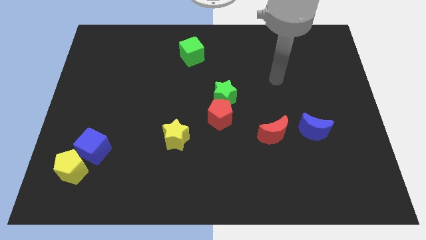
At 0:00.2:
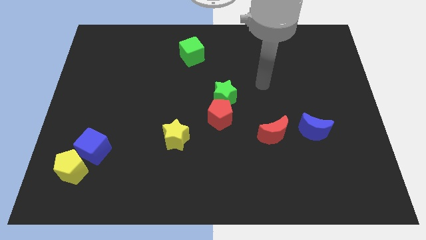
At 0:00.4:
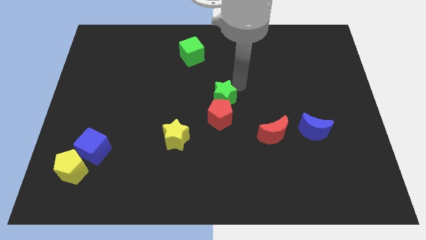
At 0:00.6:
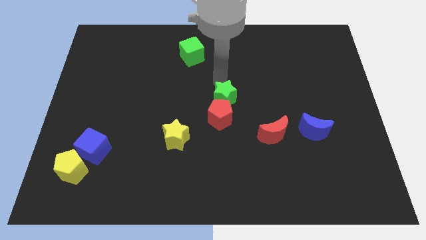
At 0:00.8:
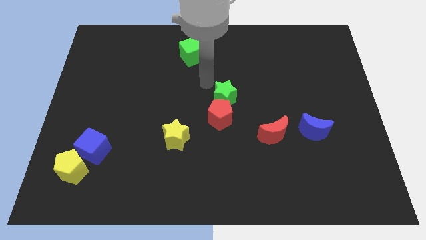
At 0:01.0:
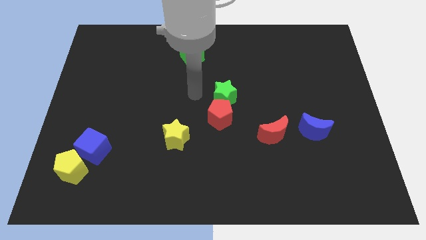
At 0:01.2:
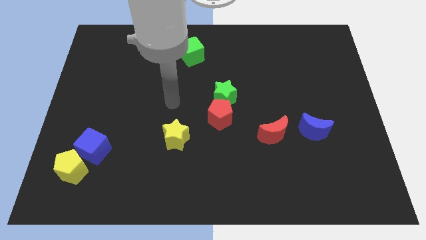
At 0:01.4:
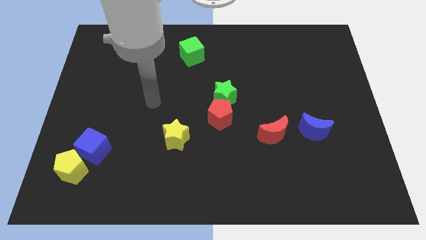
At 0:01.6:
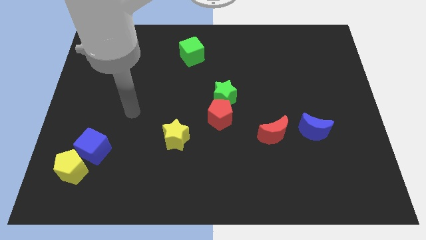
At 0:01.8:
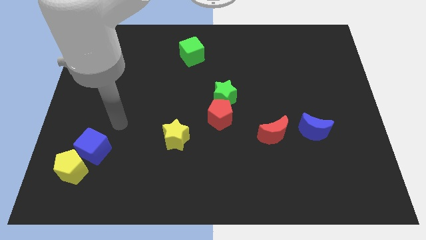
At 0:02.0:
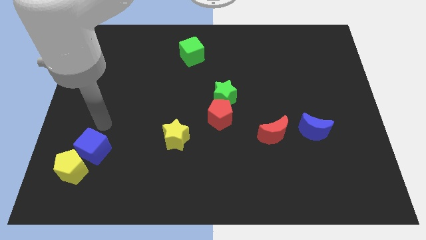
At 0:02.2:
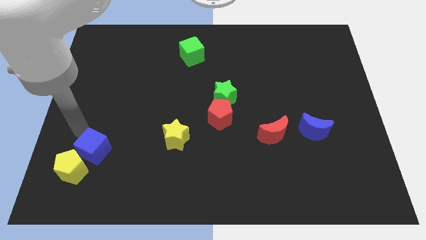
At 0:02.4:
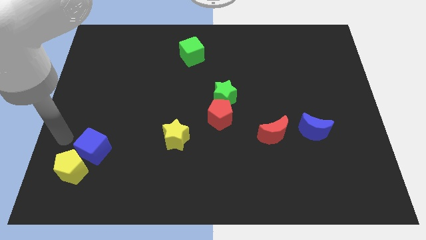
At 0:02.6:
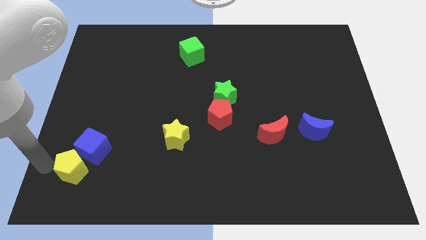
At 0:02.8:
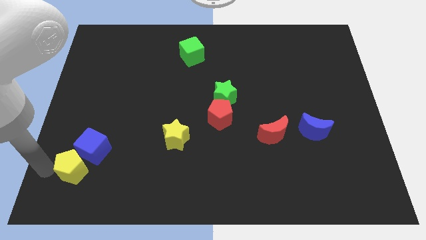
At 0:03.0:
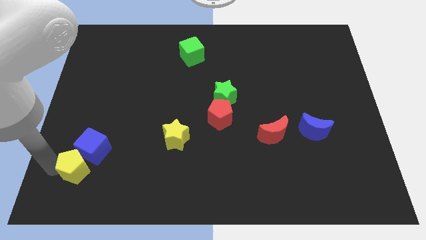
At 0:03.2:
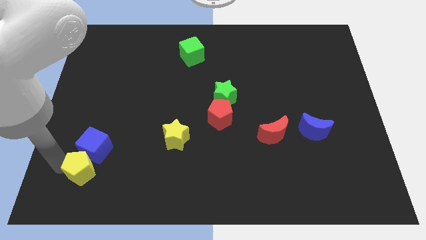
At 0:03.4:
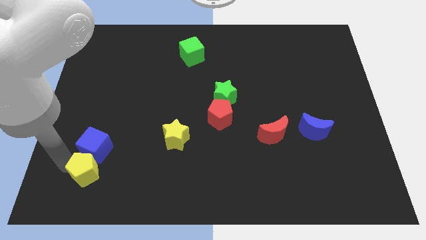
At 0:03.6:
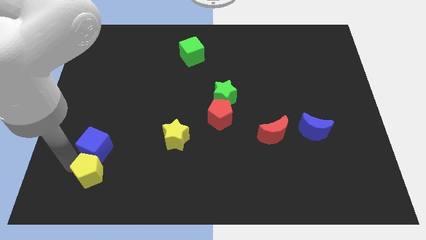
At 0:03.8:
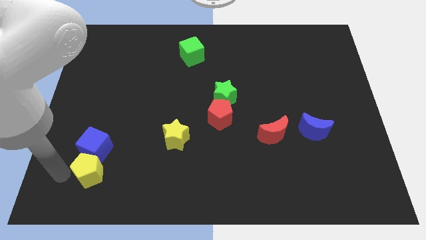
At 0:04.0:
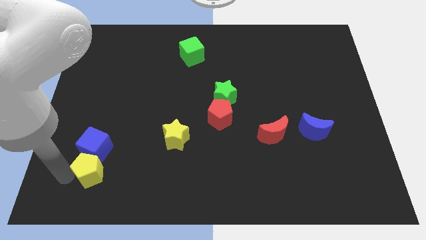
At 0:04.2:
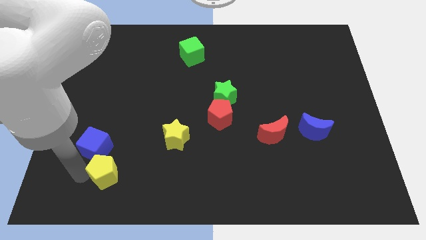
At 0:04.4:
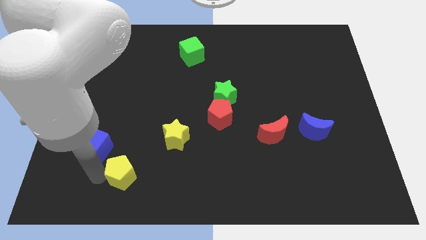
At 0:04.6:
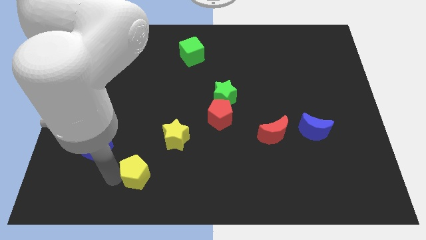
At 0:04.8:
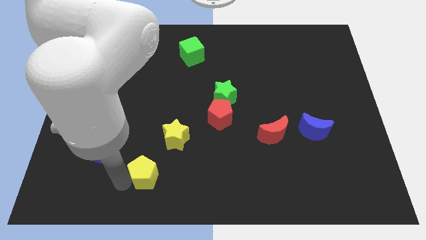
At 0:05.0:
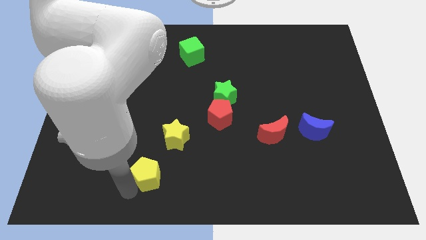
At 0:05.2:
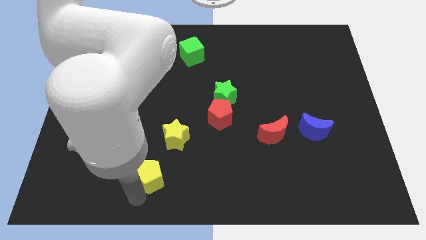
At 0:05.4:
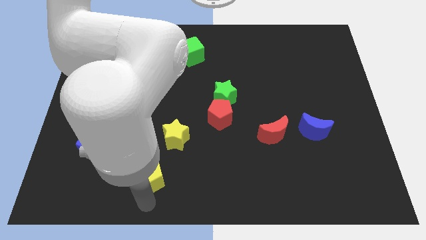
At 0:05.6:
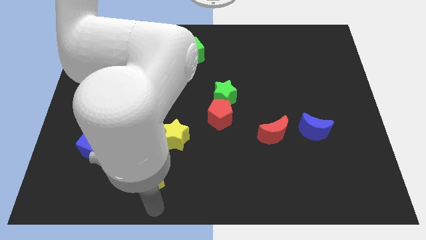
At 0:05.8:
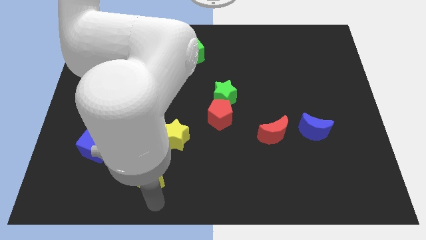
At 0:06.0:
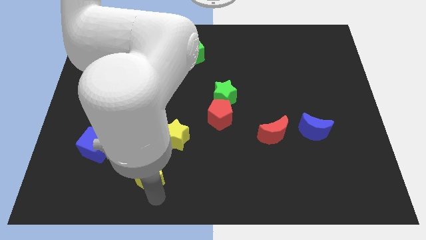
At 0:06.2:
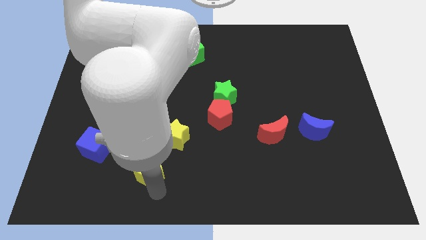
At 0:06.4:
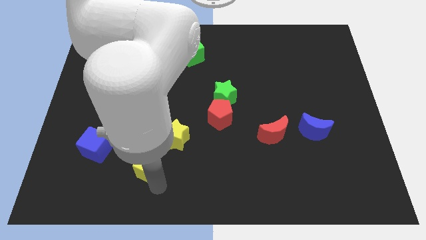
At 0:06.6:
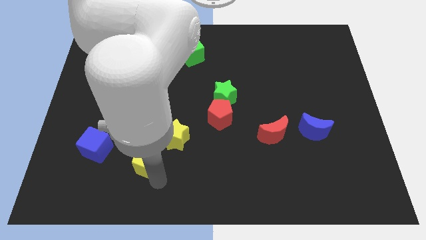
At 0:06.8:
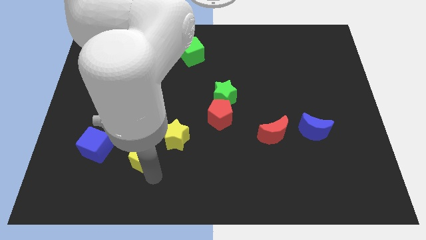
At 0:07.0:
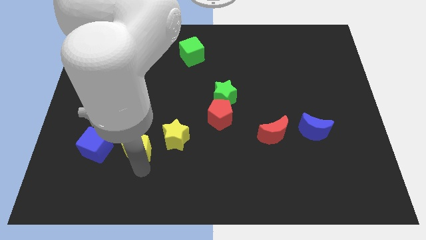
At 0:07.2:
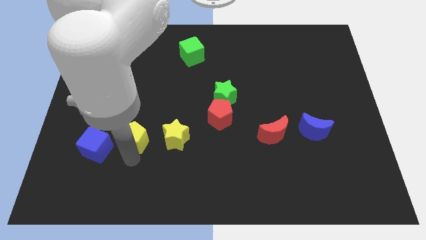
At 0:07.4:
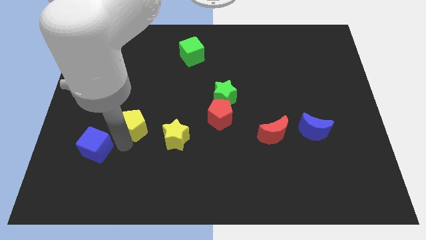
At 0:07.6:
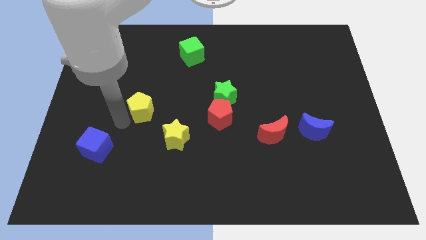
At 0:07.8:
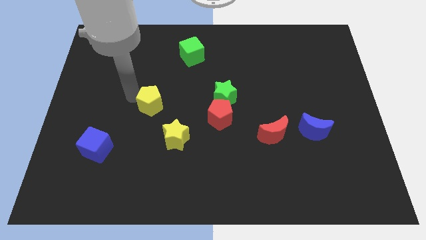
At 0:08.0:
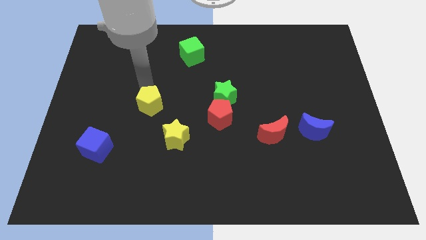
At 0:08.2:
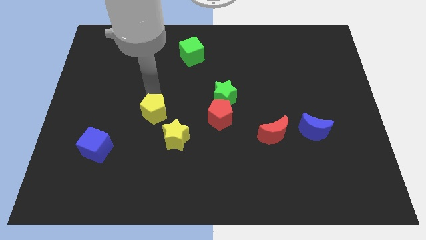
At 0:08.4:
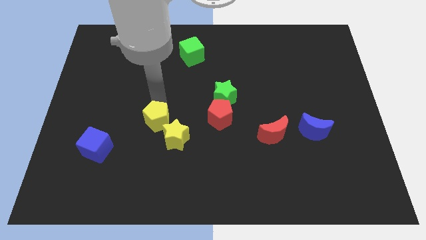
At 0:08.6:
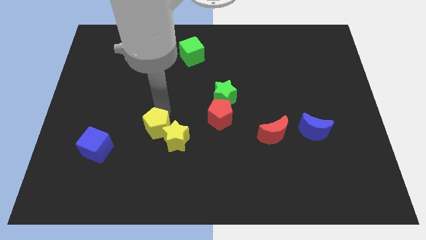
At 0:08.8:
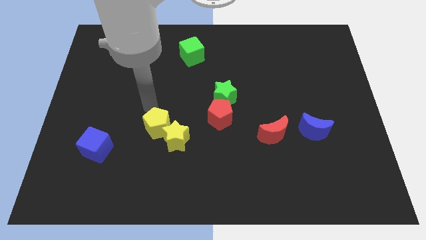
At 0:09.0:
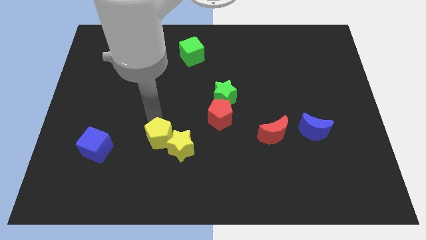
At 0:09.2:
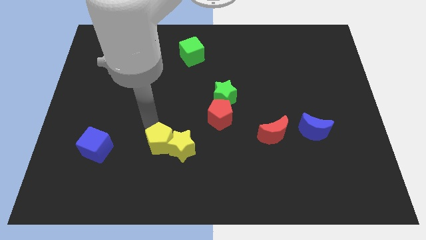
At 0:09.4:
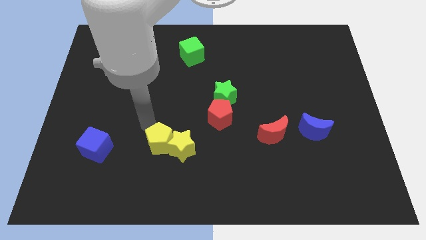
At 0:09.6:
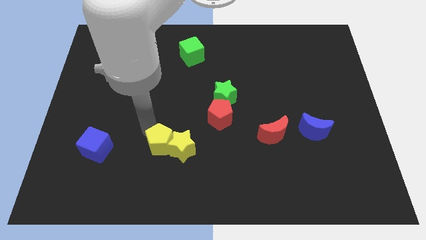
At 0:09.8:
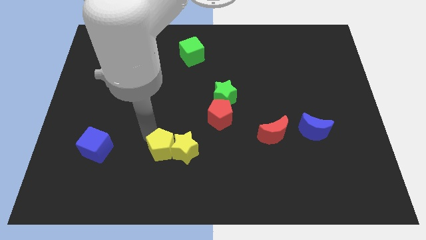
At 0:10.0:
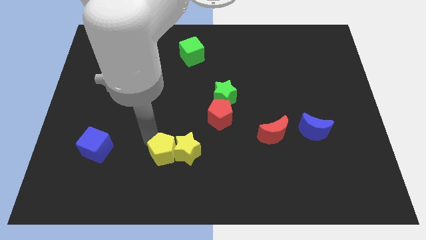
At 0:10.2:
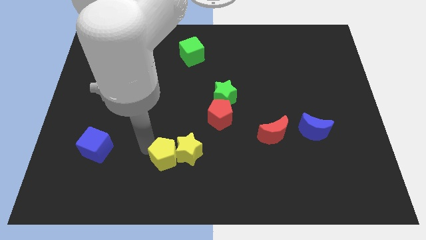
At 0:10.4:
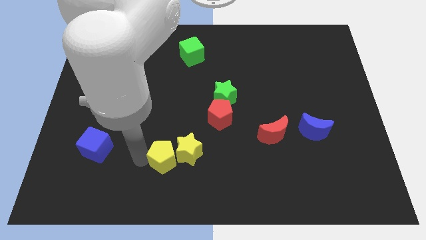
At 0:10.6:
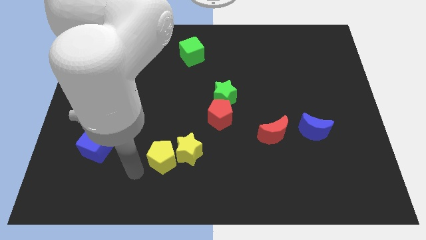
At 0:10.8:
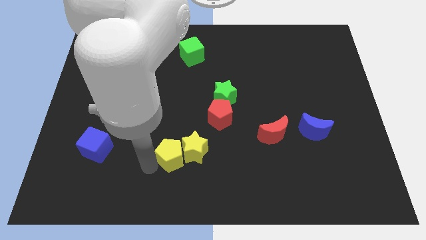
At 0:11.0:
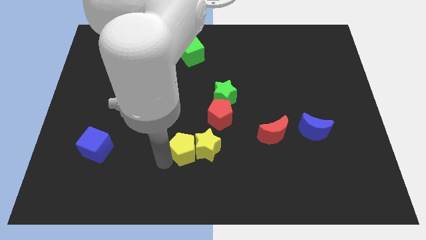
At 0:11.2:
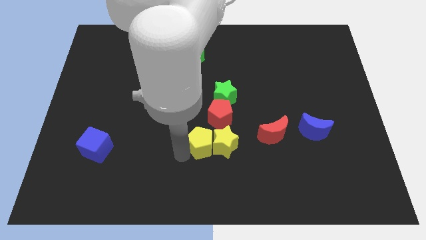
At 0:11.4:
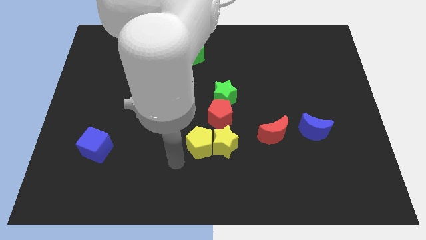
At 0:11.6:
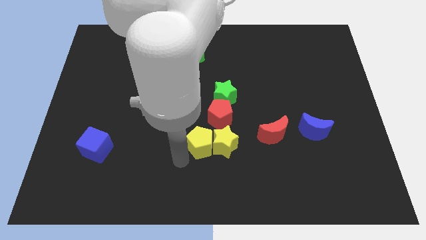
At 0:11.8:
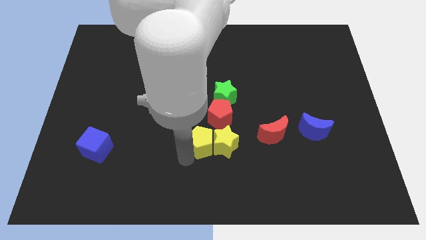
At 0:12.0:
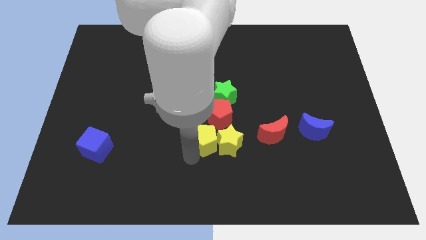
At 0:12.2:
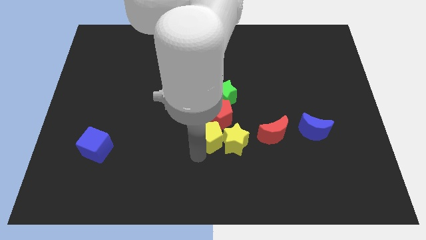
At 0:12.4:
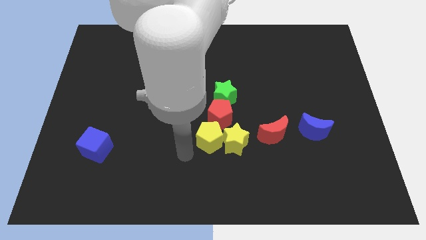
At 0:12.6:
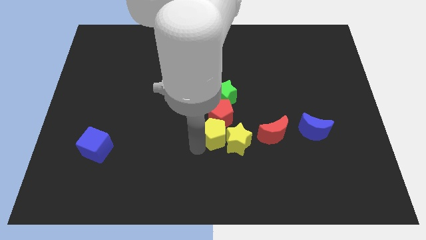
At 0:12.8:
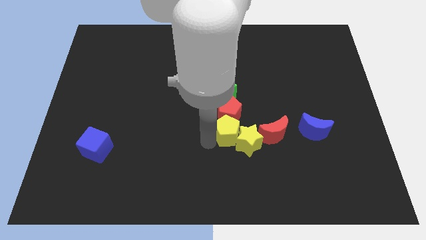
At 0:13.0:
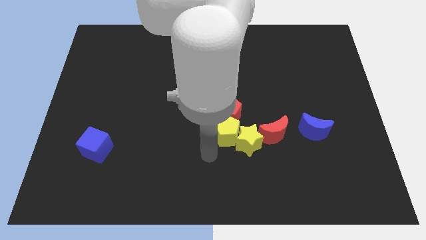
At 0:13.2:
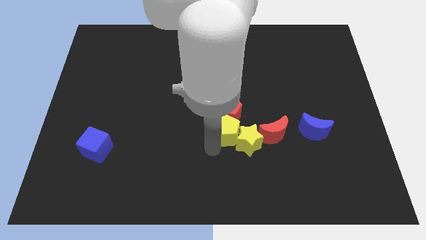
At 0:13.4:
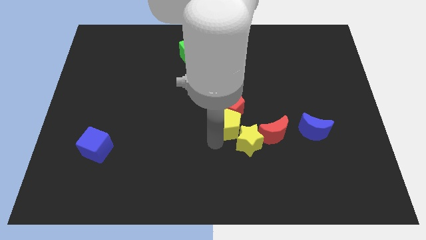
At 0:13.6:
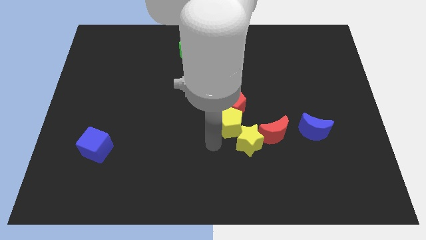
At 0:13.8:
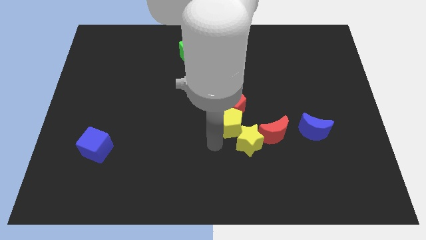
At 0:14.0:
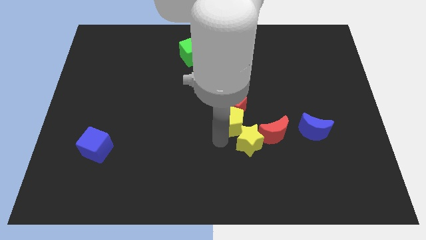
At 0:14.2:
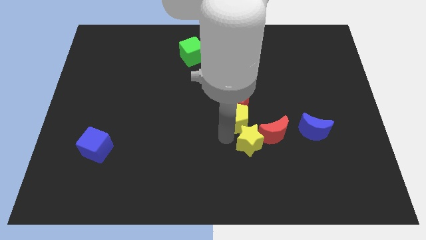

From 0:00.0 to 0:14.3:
slide the yellow pentagon diagonally down and to the right of the green star

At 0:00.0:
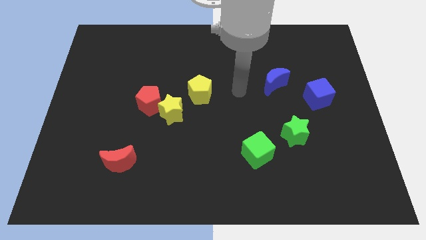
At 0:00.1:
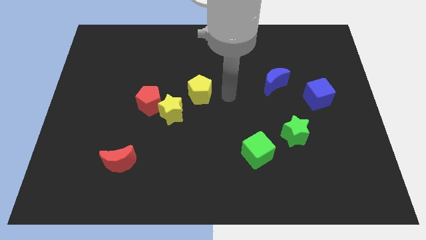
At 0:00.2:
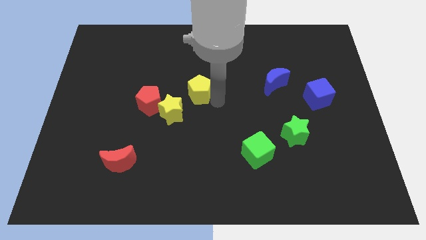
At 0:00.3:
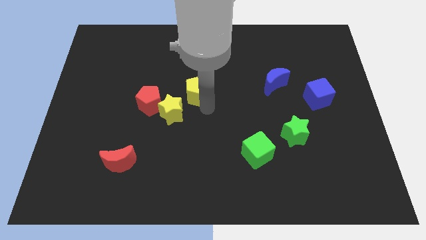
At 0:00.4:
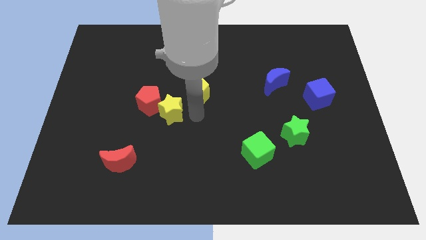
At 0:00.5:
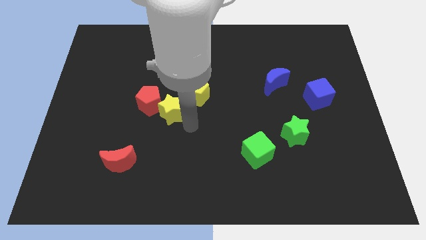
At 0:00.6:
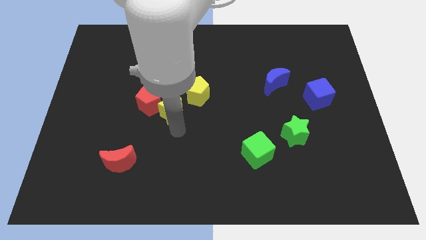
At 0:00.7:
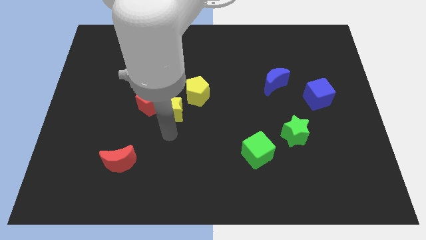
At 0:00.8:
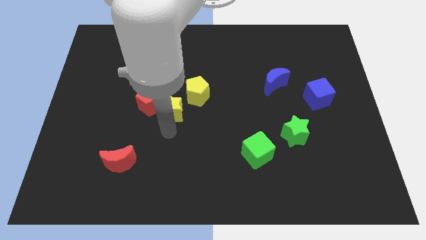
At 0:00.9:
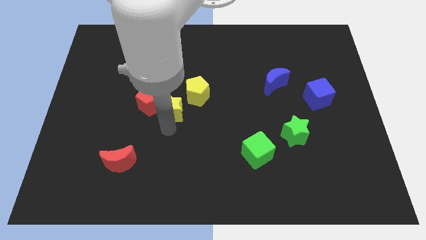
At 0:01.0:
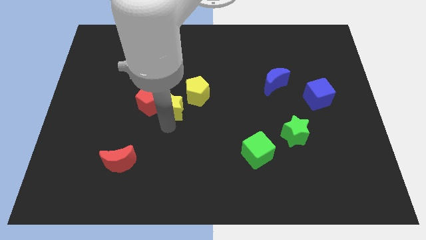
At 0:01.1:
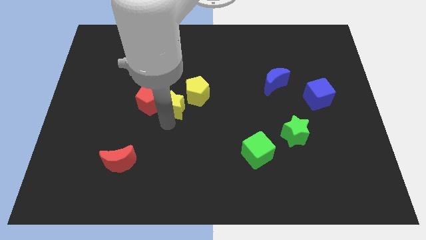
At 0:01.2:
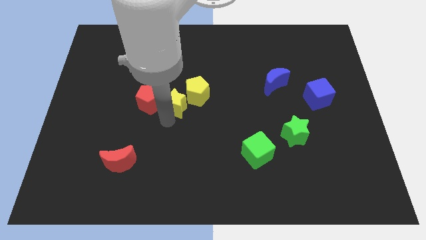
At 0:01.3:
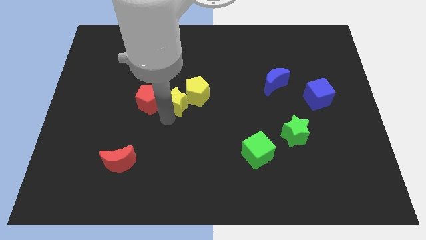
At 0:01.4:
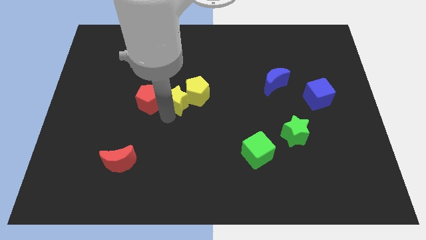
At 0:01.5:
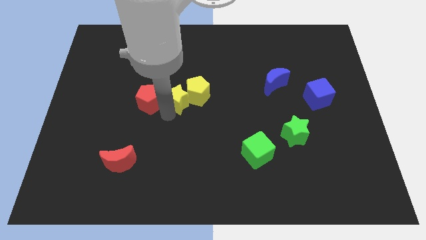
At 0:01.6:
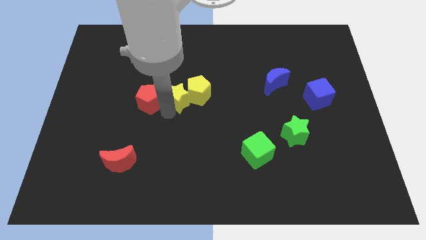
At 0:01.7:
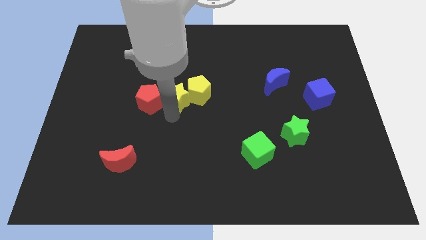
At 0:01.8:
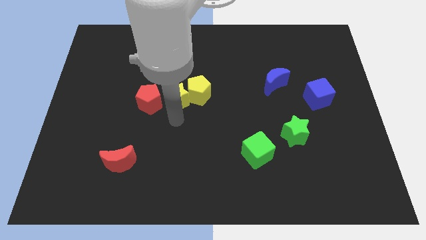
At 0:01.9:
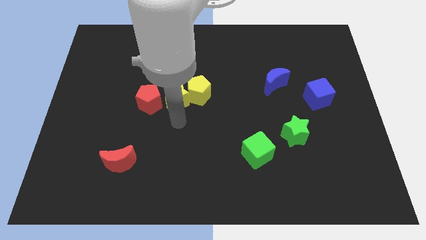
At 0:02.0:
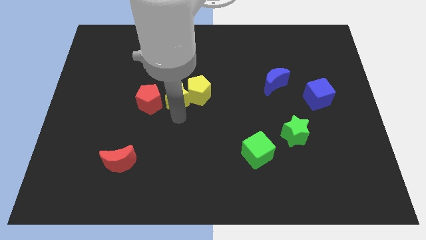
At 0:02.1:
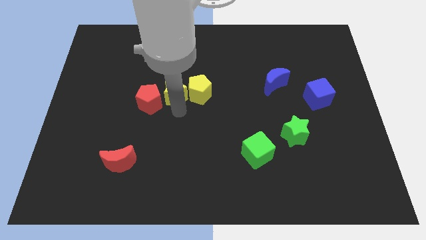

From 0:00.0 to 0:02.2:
put the yellow star to the top left side of the yellow pentagon
